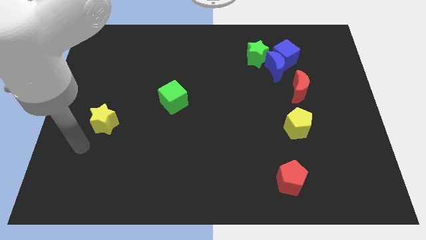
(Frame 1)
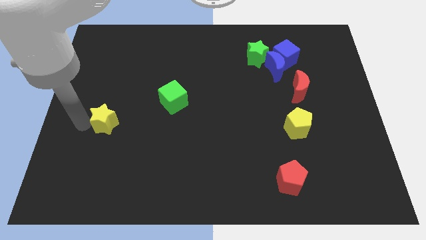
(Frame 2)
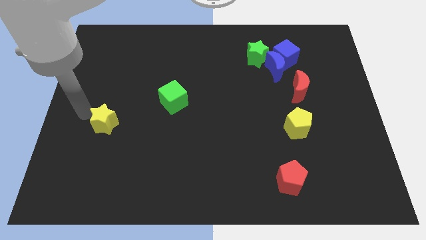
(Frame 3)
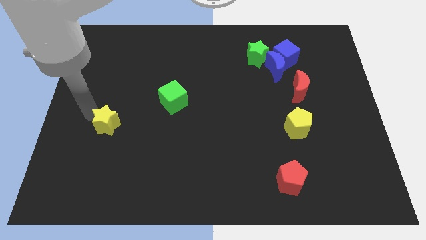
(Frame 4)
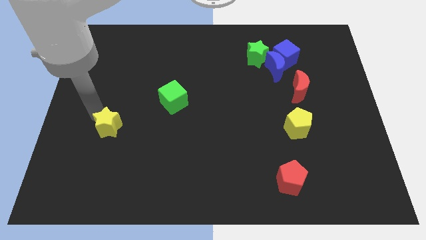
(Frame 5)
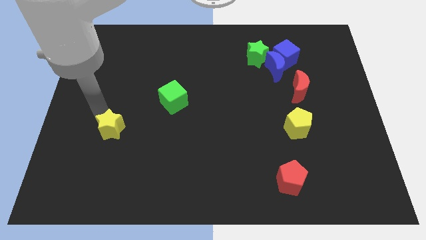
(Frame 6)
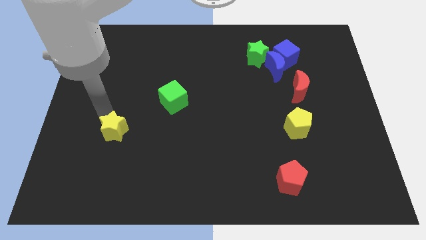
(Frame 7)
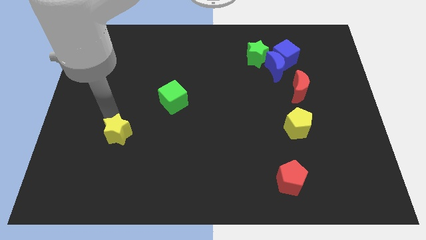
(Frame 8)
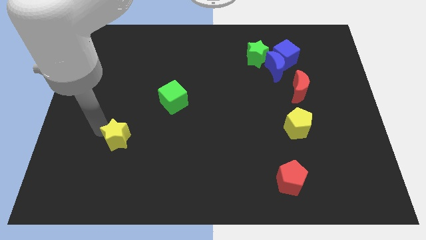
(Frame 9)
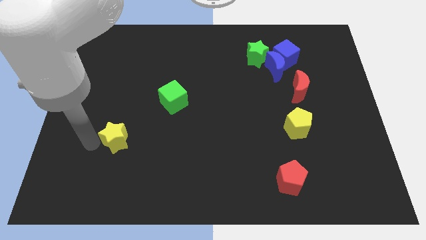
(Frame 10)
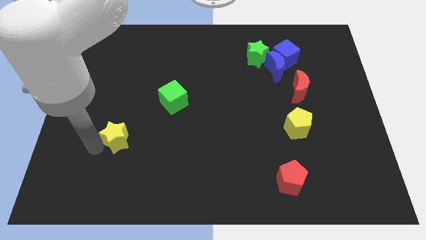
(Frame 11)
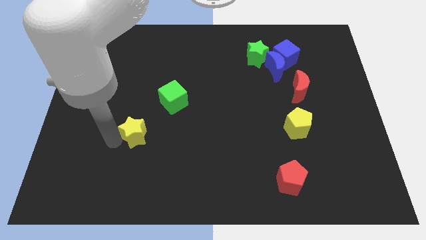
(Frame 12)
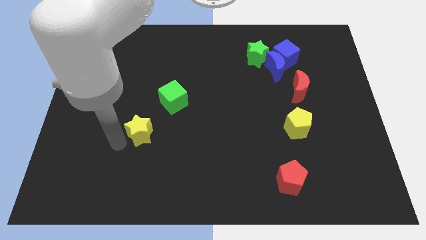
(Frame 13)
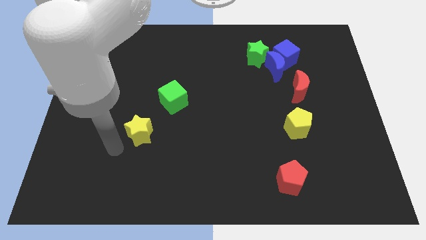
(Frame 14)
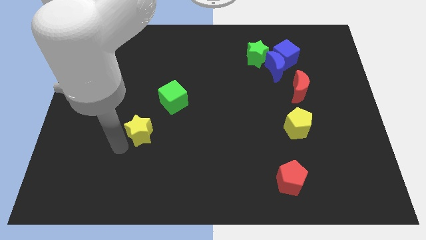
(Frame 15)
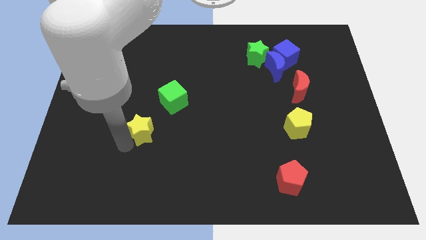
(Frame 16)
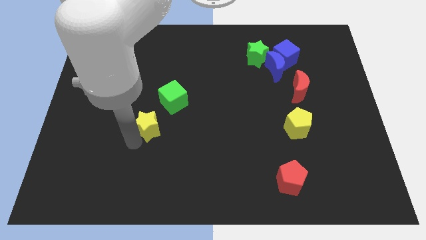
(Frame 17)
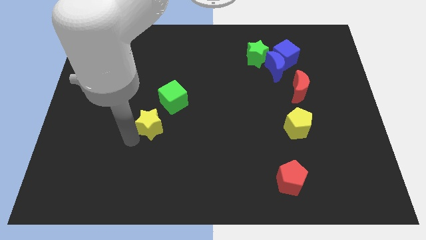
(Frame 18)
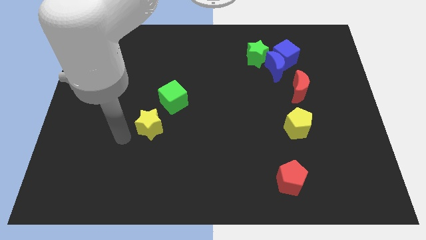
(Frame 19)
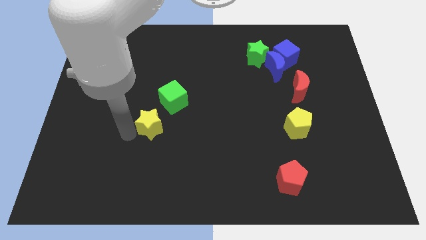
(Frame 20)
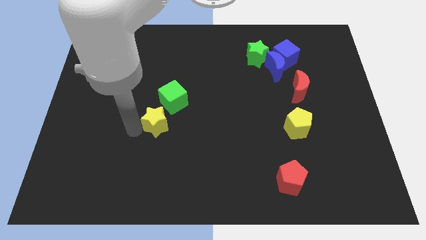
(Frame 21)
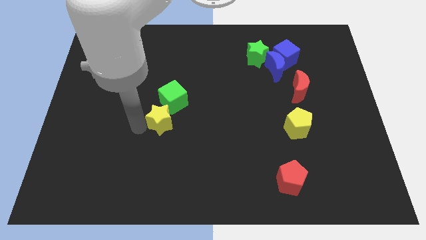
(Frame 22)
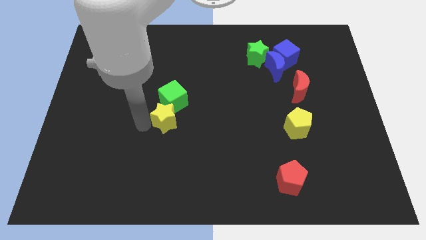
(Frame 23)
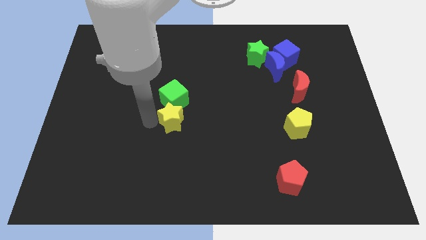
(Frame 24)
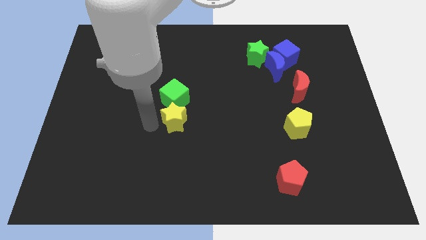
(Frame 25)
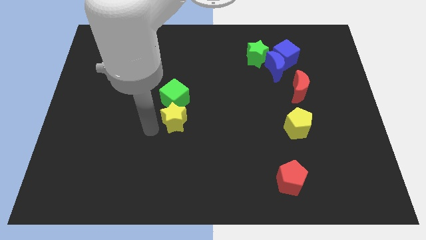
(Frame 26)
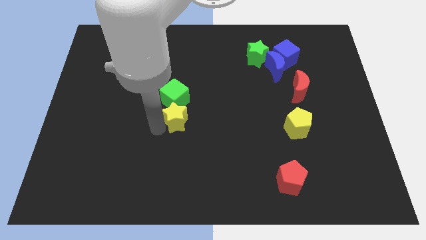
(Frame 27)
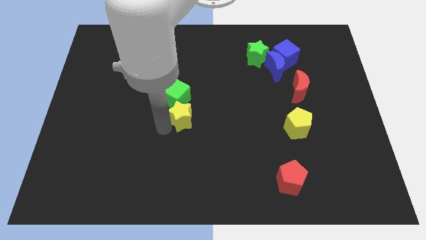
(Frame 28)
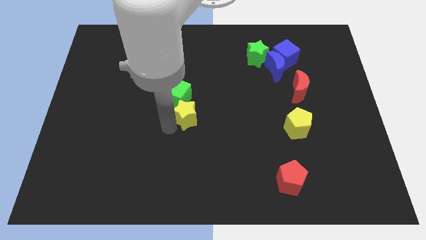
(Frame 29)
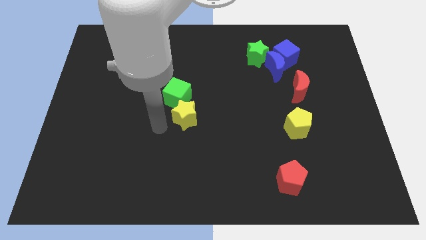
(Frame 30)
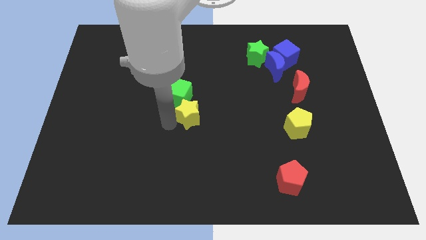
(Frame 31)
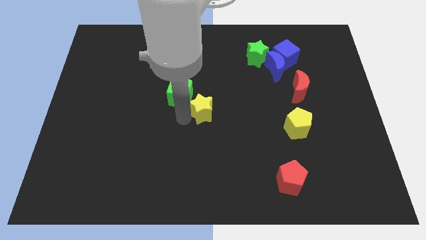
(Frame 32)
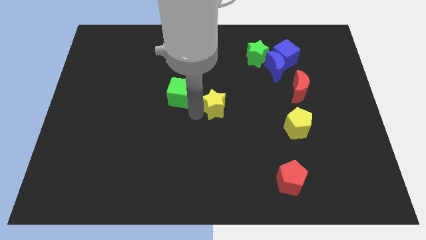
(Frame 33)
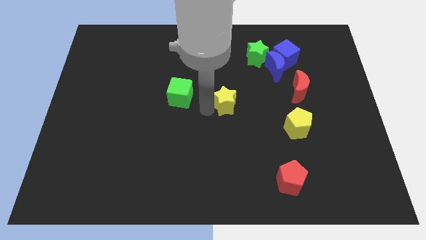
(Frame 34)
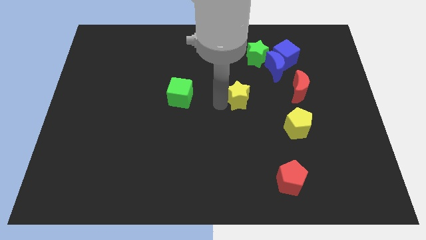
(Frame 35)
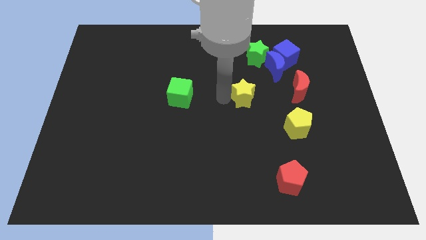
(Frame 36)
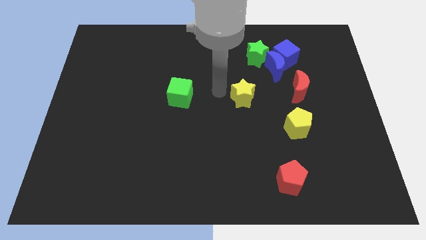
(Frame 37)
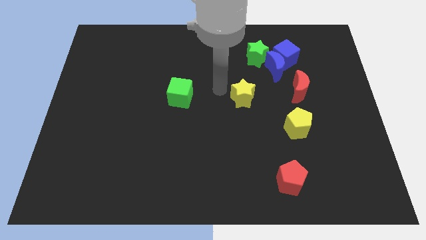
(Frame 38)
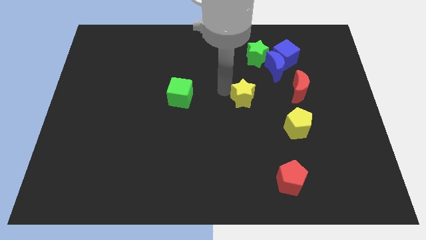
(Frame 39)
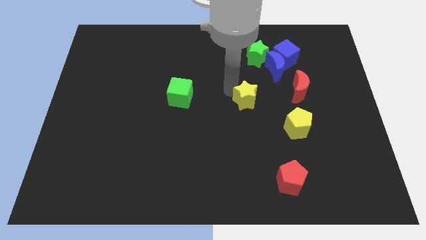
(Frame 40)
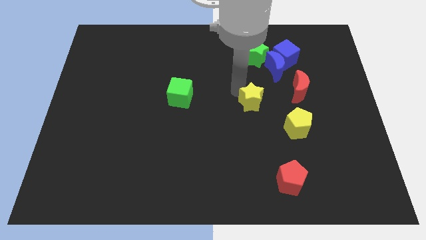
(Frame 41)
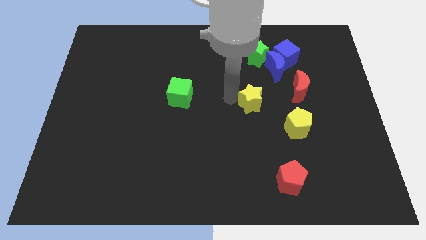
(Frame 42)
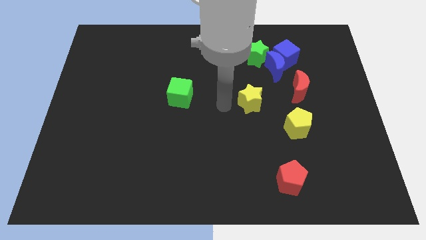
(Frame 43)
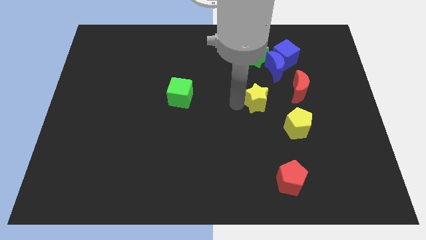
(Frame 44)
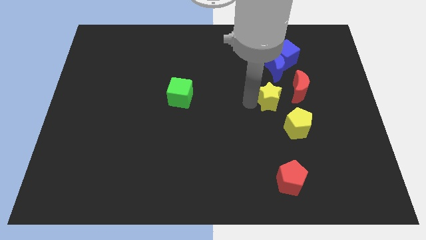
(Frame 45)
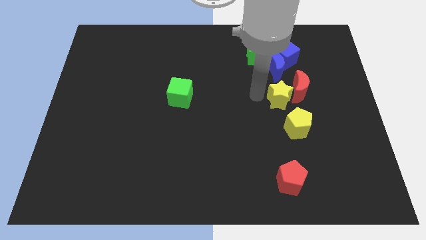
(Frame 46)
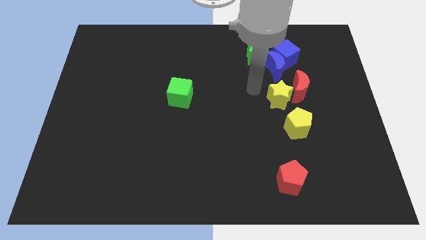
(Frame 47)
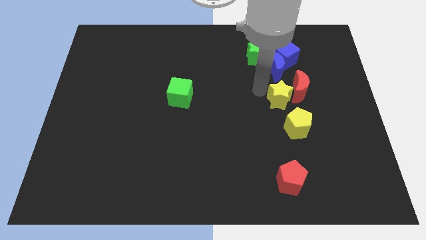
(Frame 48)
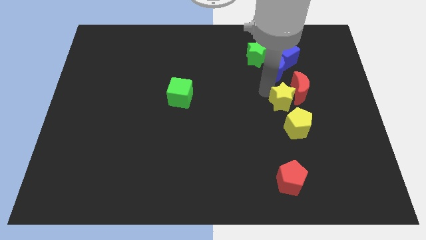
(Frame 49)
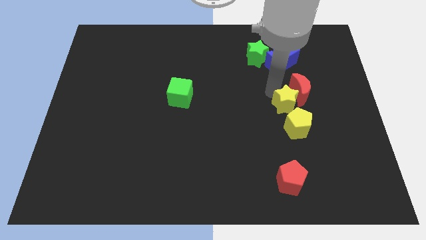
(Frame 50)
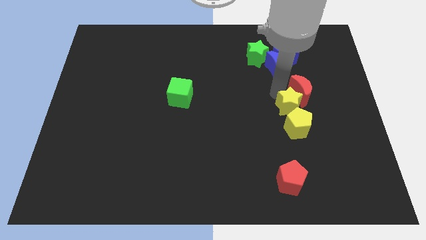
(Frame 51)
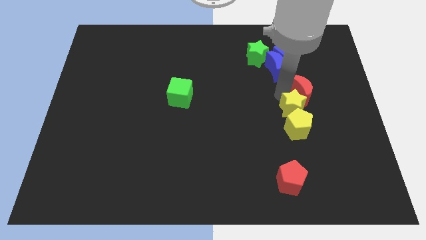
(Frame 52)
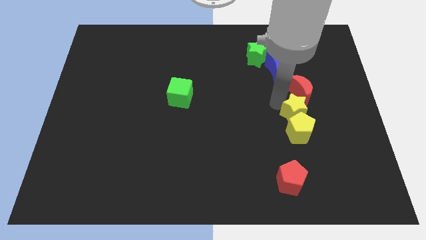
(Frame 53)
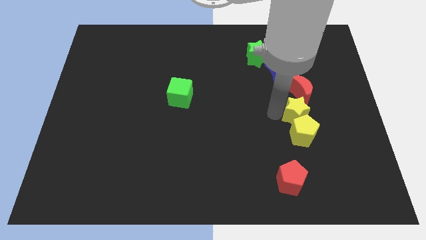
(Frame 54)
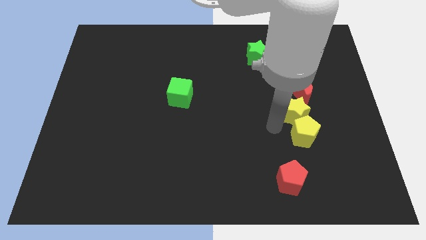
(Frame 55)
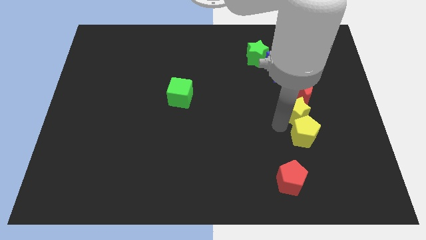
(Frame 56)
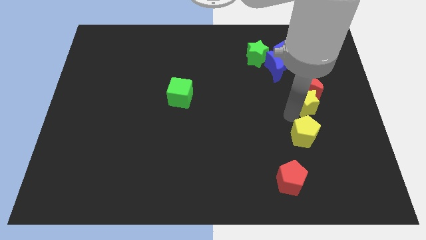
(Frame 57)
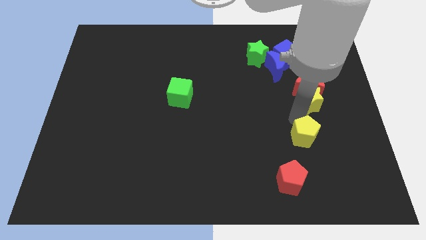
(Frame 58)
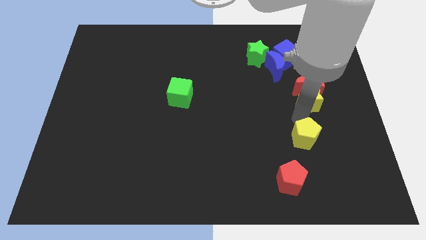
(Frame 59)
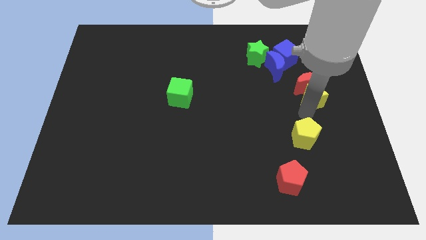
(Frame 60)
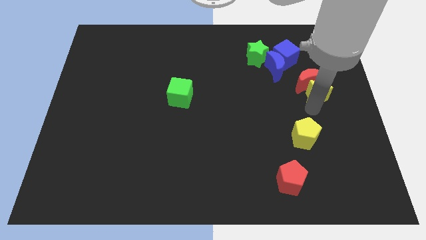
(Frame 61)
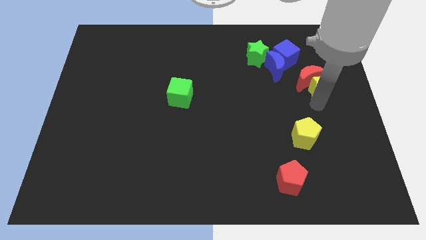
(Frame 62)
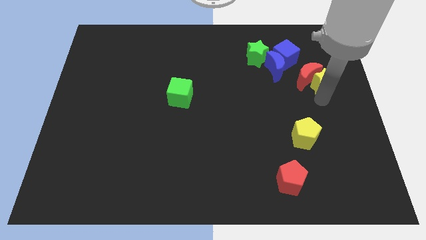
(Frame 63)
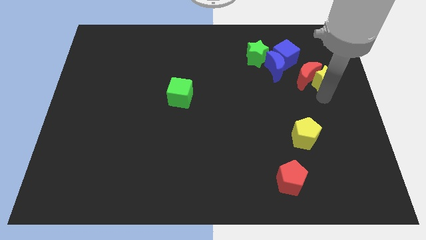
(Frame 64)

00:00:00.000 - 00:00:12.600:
push the yellow star diagonally up and to the right of the red moon
